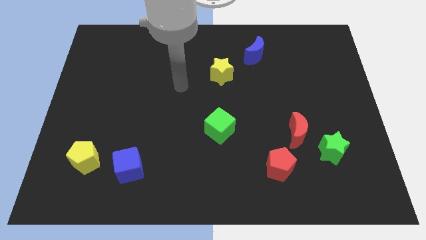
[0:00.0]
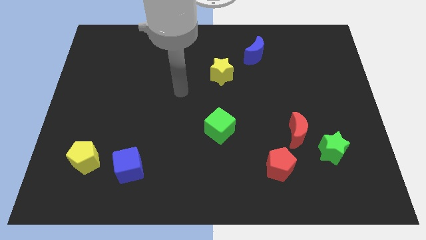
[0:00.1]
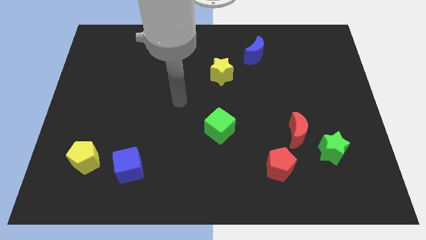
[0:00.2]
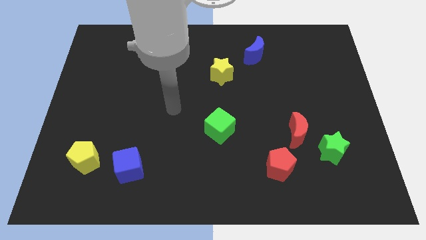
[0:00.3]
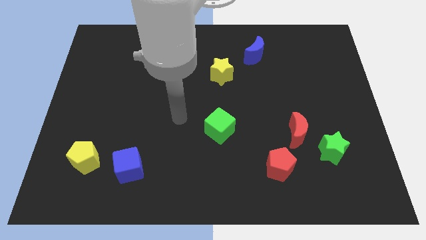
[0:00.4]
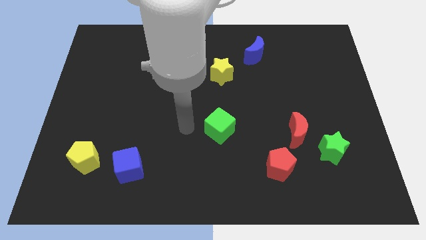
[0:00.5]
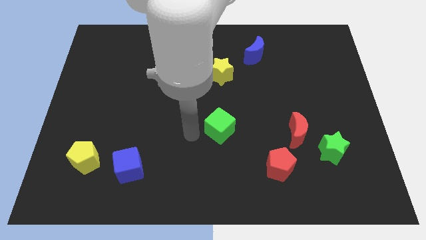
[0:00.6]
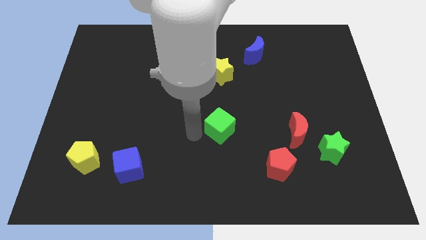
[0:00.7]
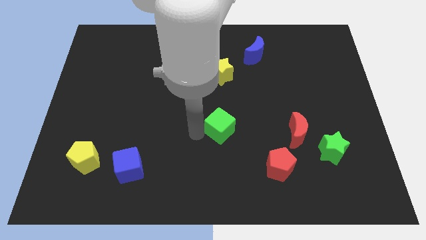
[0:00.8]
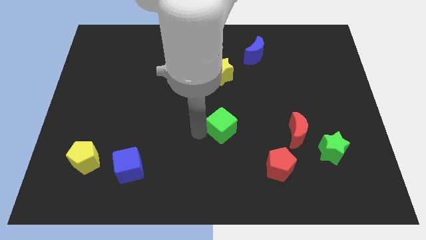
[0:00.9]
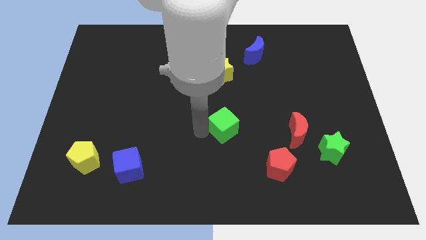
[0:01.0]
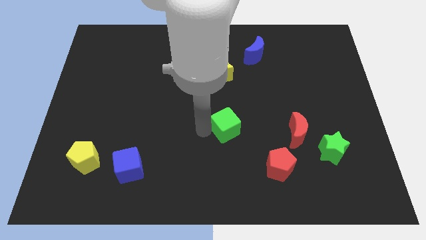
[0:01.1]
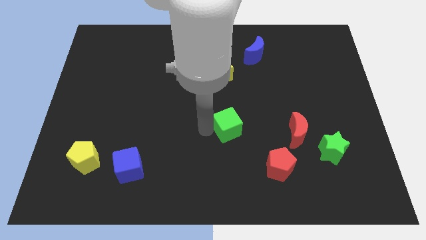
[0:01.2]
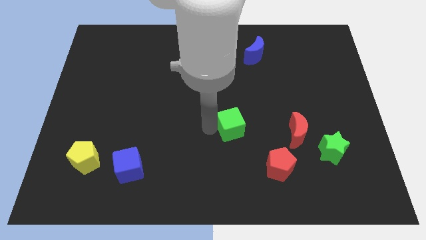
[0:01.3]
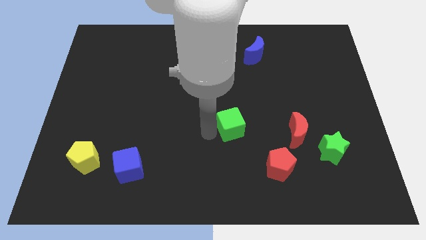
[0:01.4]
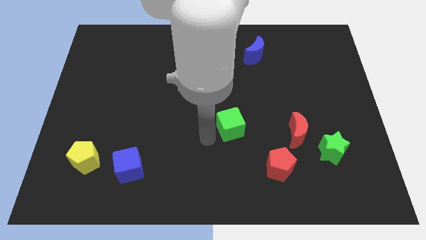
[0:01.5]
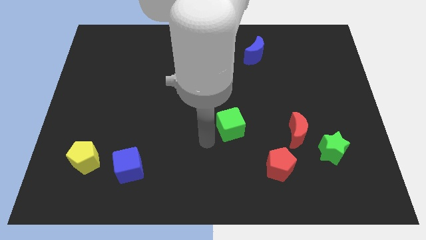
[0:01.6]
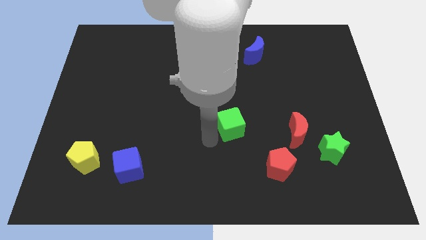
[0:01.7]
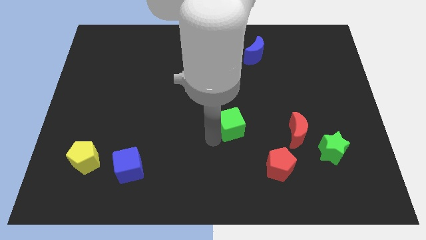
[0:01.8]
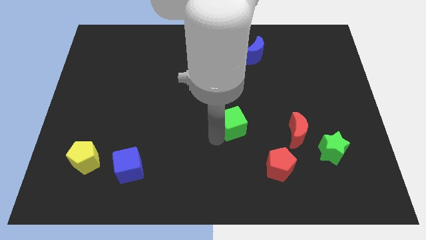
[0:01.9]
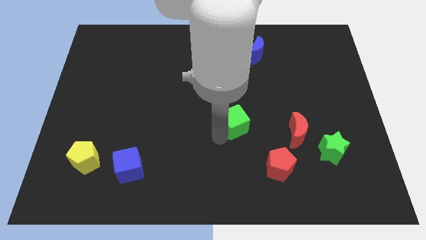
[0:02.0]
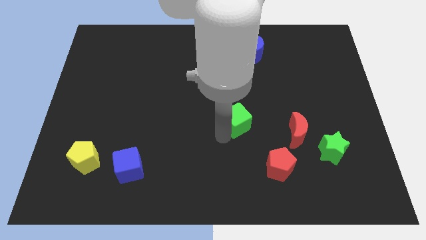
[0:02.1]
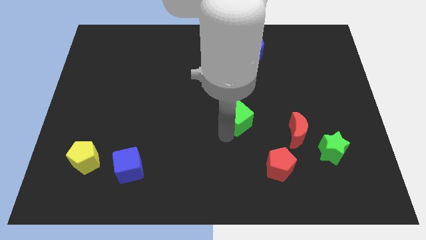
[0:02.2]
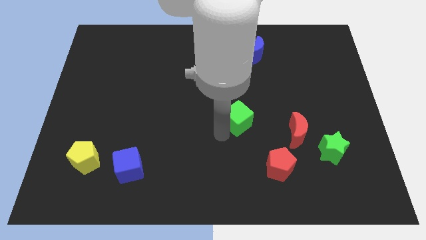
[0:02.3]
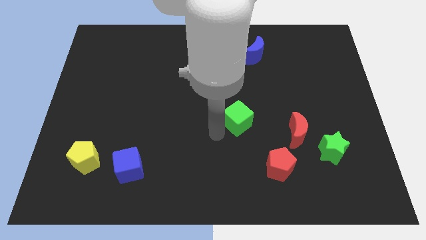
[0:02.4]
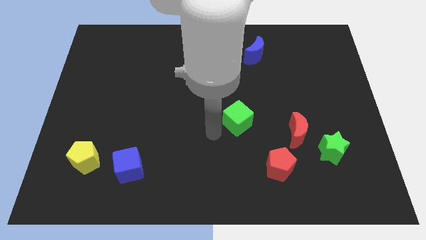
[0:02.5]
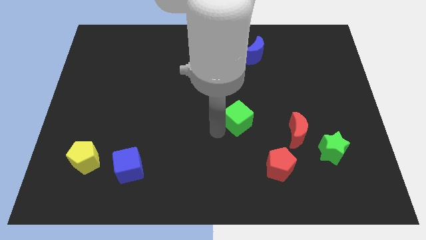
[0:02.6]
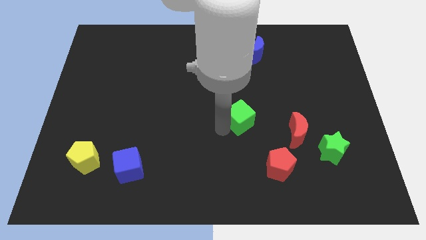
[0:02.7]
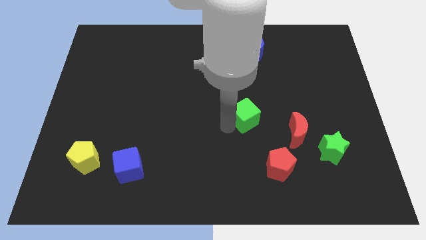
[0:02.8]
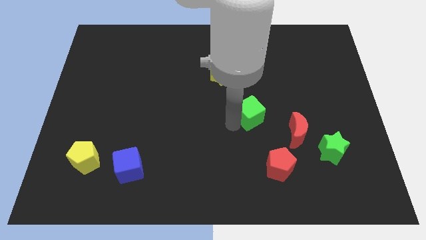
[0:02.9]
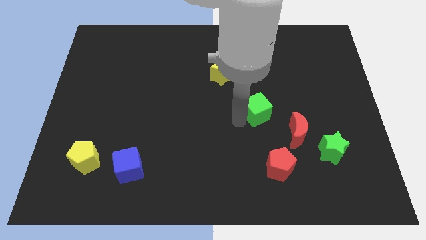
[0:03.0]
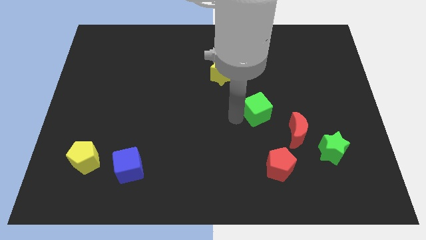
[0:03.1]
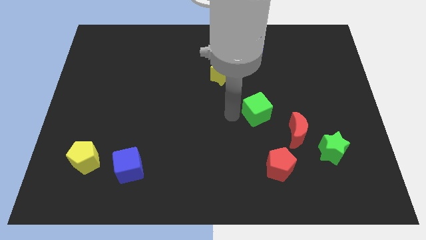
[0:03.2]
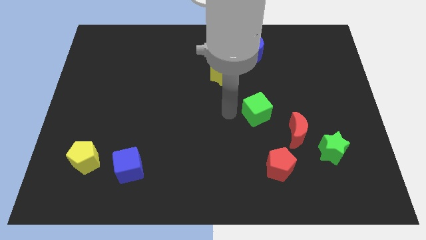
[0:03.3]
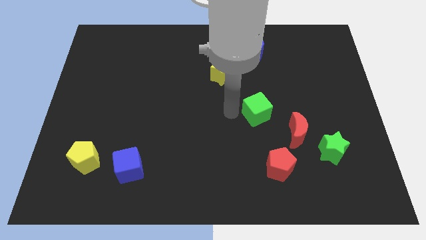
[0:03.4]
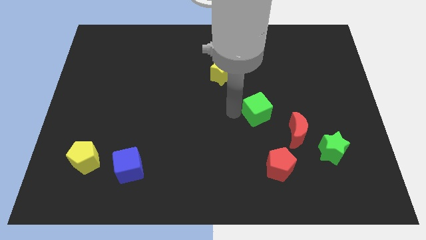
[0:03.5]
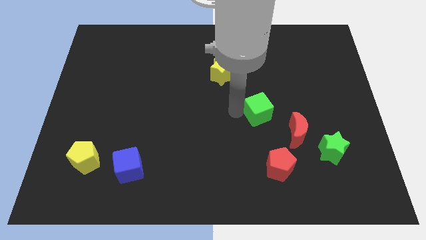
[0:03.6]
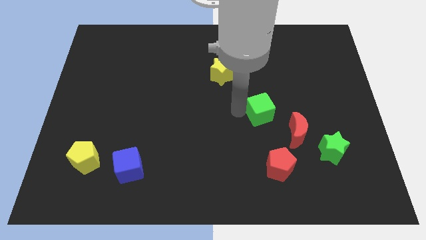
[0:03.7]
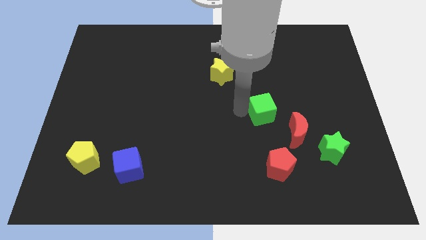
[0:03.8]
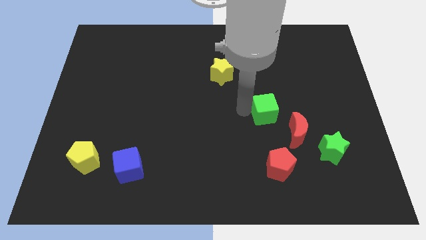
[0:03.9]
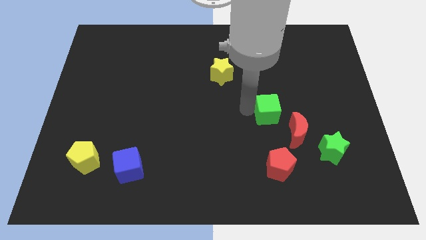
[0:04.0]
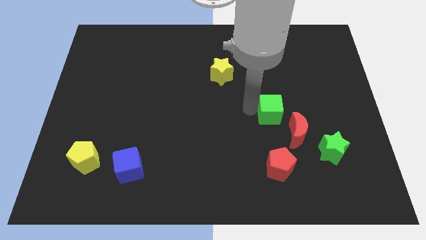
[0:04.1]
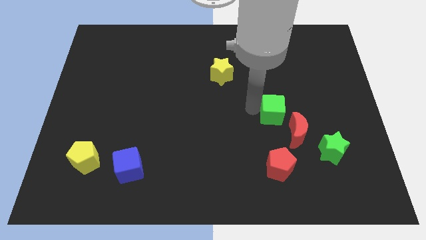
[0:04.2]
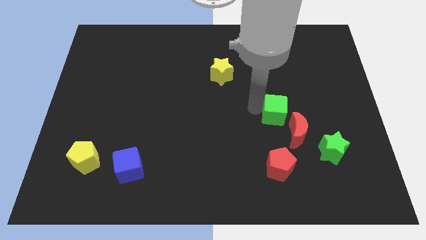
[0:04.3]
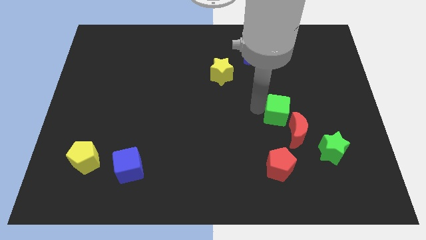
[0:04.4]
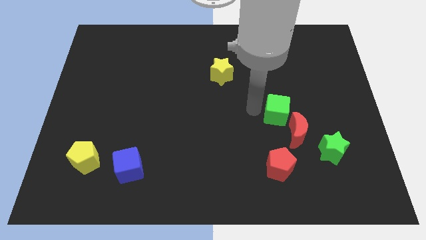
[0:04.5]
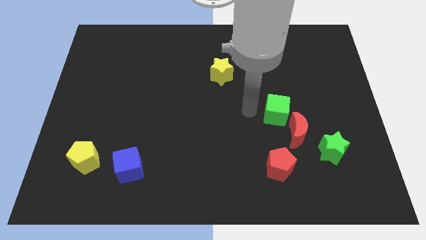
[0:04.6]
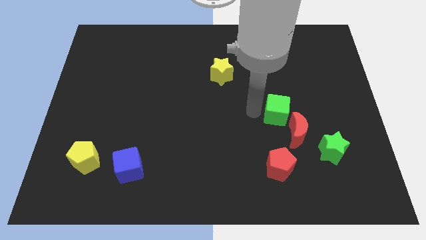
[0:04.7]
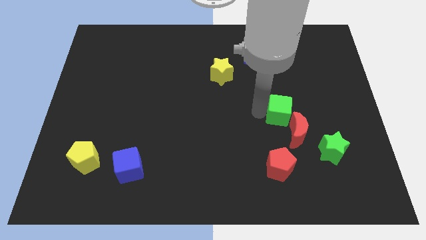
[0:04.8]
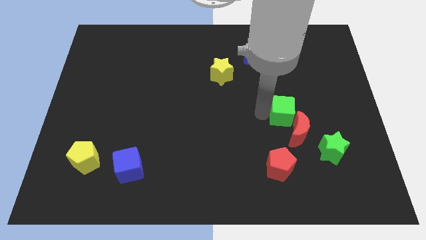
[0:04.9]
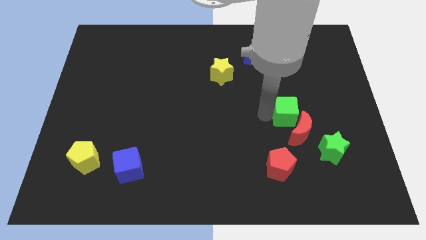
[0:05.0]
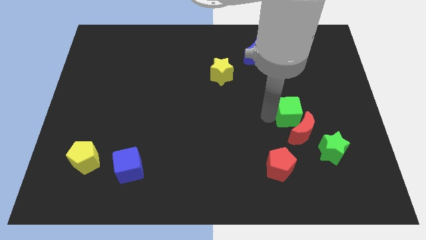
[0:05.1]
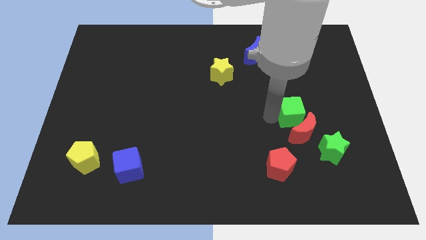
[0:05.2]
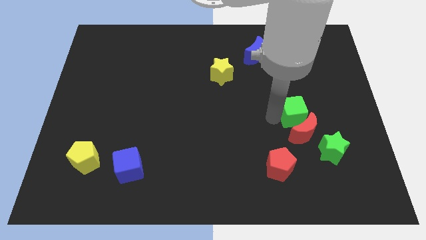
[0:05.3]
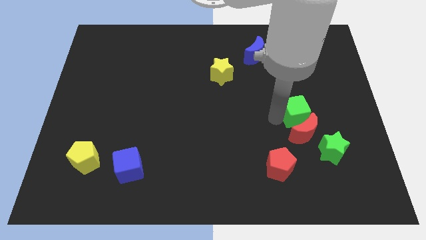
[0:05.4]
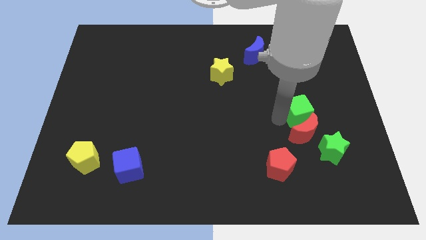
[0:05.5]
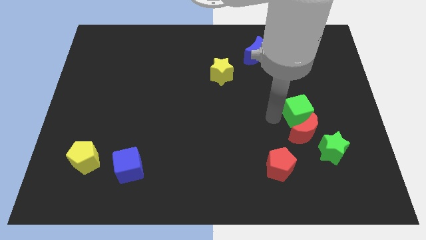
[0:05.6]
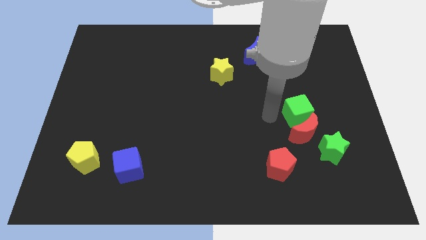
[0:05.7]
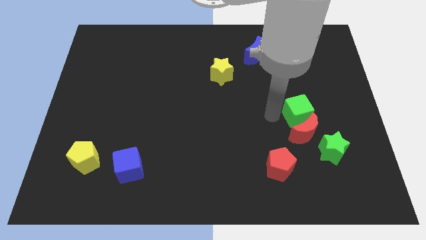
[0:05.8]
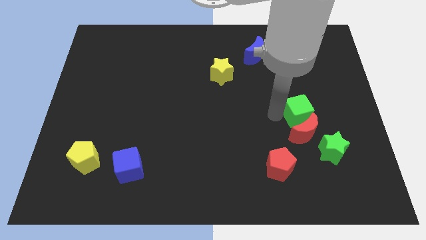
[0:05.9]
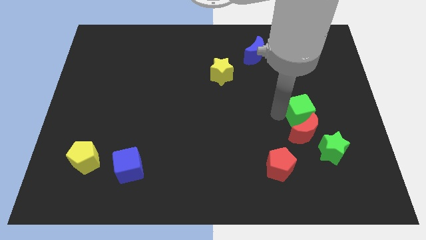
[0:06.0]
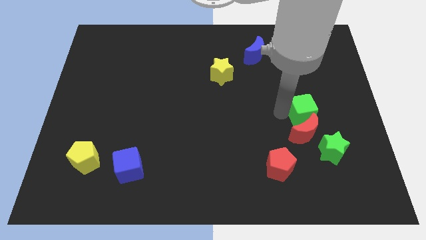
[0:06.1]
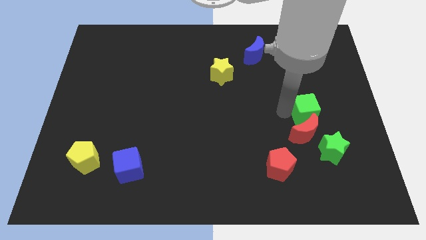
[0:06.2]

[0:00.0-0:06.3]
push the green cube above the green star

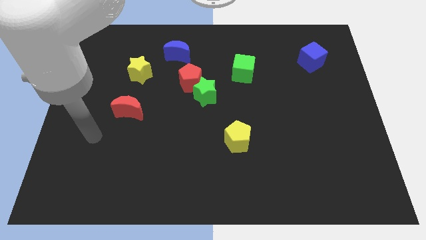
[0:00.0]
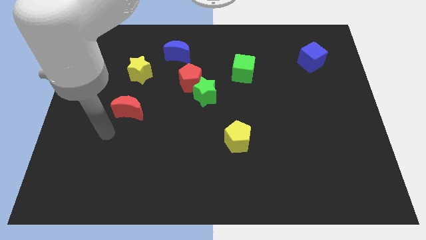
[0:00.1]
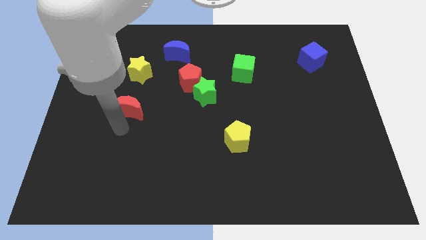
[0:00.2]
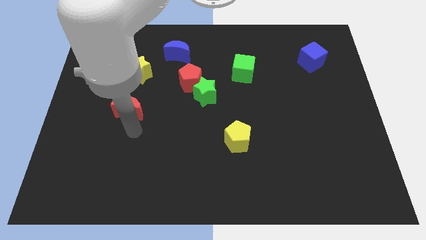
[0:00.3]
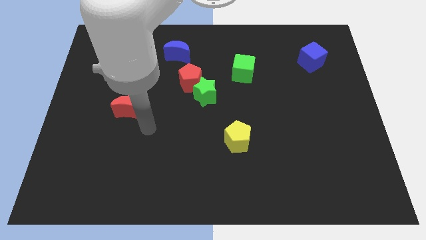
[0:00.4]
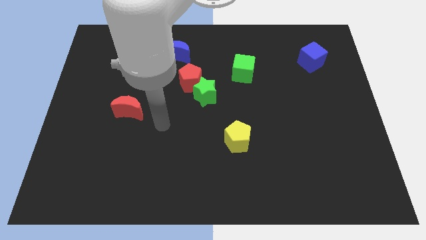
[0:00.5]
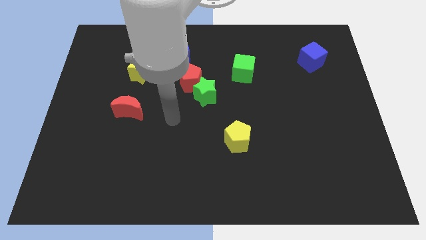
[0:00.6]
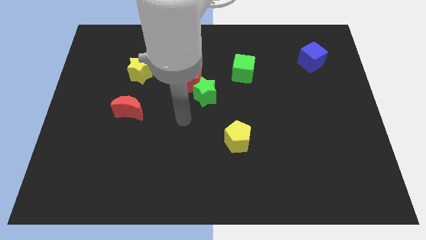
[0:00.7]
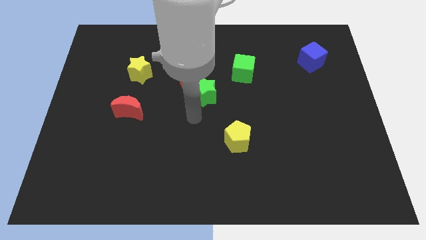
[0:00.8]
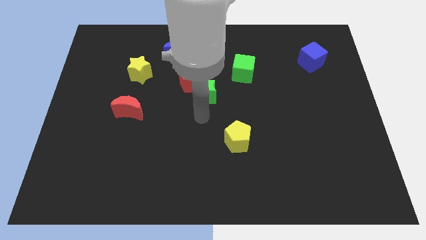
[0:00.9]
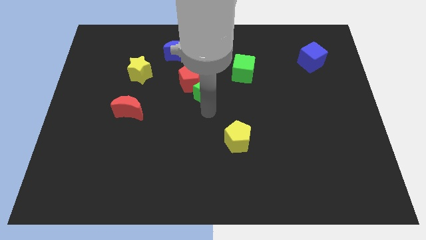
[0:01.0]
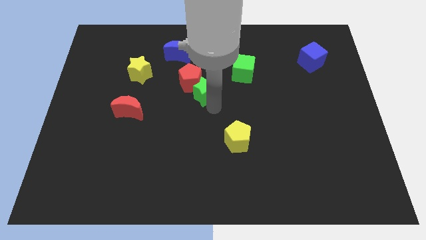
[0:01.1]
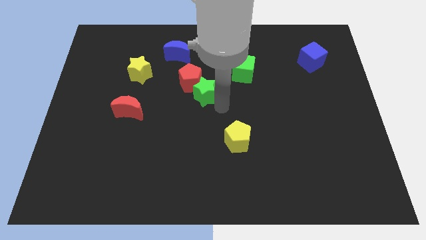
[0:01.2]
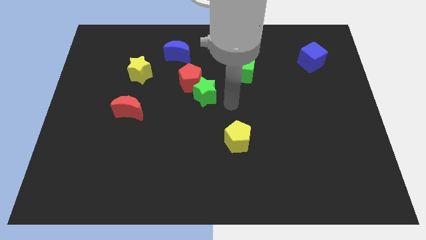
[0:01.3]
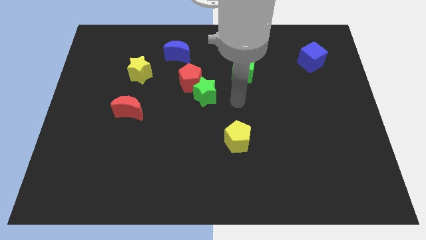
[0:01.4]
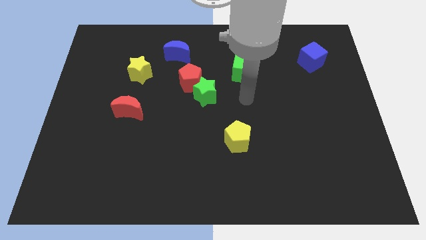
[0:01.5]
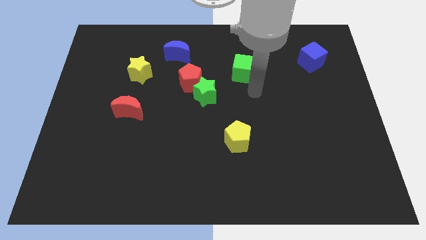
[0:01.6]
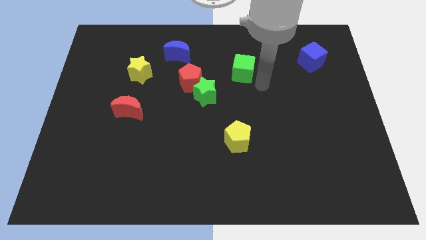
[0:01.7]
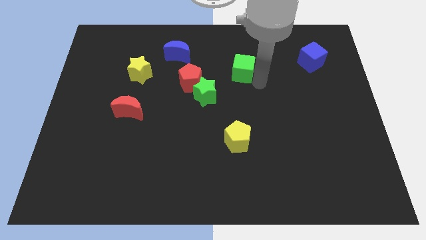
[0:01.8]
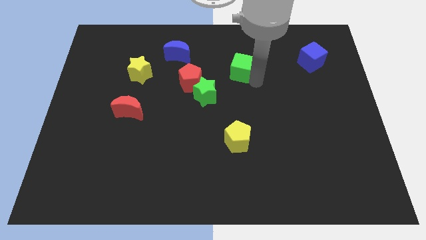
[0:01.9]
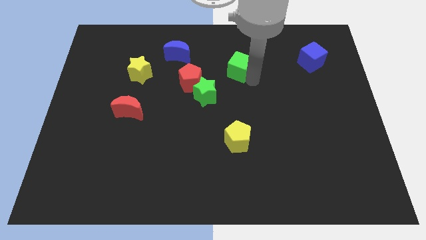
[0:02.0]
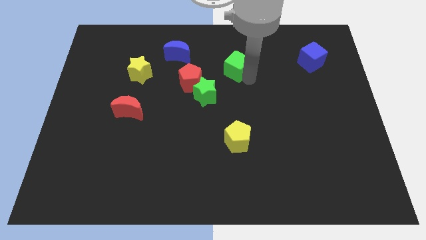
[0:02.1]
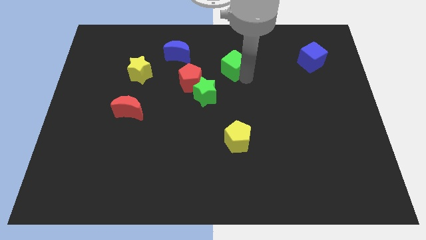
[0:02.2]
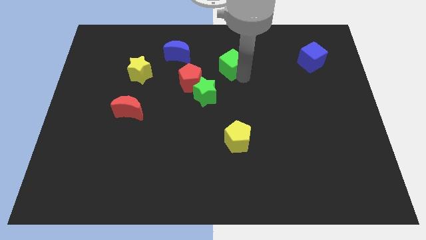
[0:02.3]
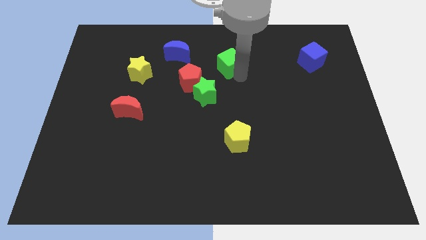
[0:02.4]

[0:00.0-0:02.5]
move the green cube to the right side of the blue moon
